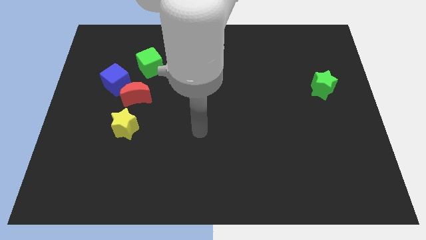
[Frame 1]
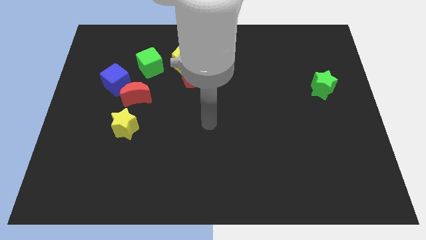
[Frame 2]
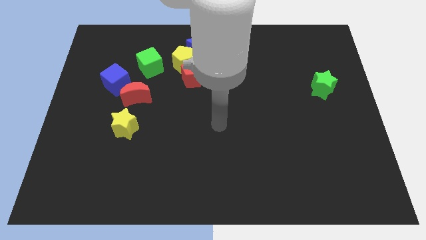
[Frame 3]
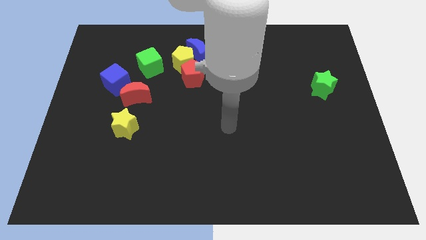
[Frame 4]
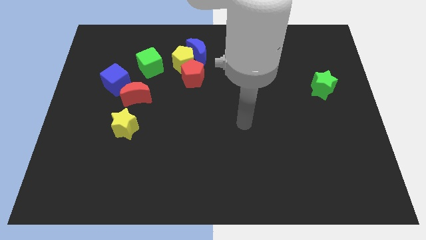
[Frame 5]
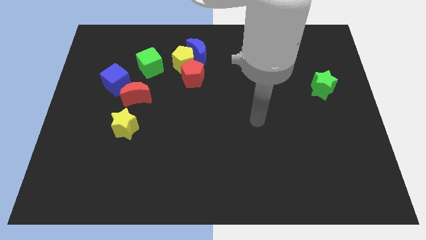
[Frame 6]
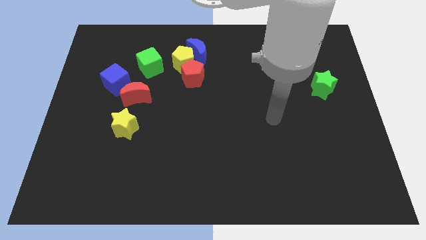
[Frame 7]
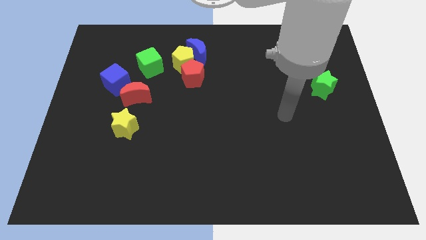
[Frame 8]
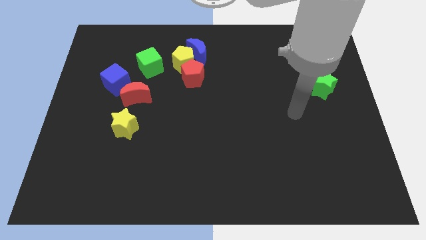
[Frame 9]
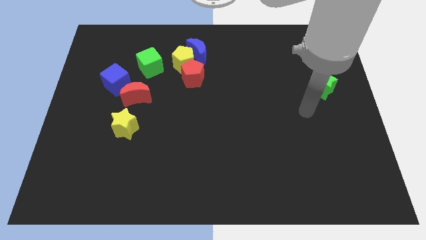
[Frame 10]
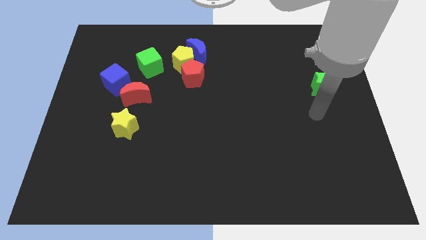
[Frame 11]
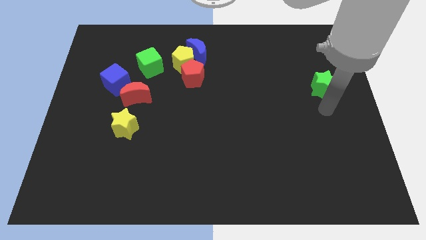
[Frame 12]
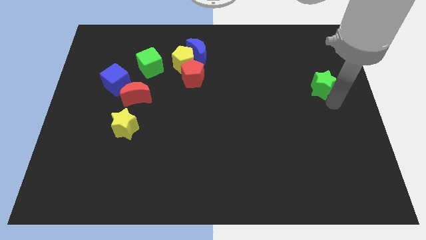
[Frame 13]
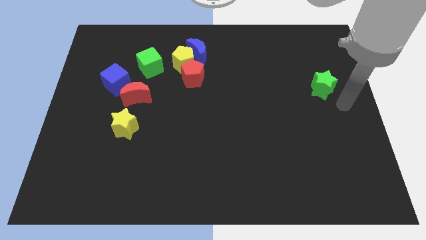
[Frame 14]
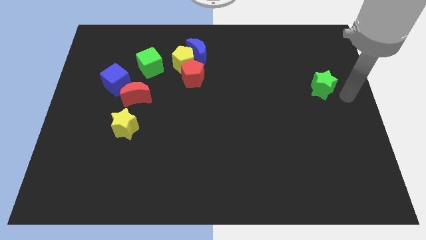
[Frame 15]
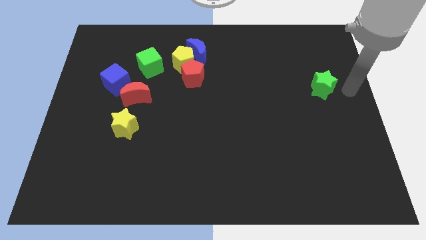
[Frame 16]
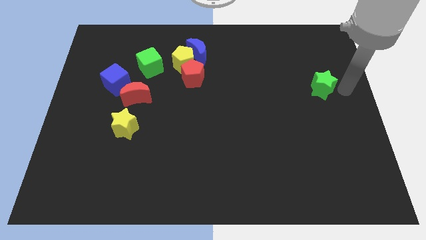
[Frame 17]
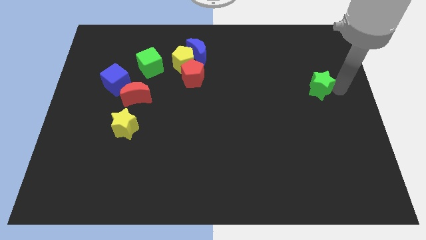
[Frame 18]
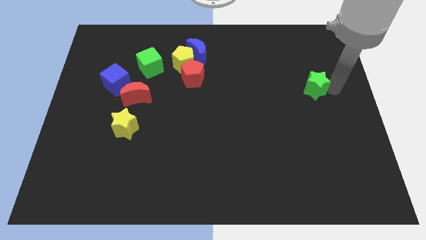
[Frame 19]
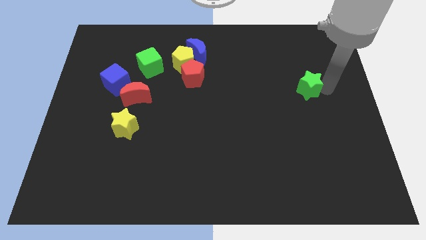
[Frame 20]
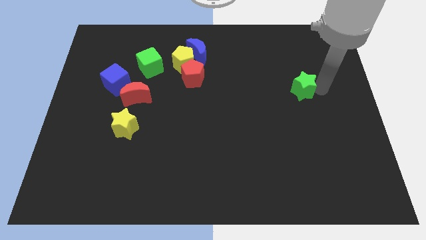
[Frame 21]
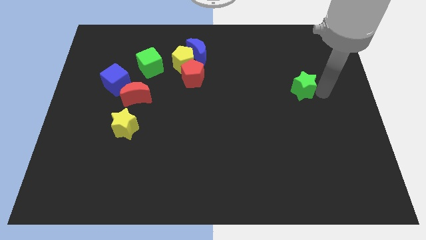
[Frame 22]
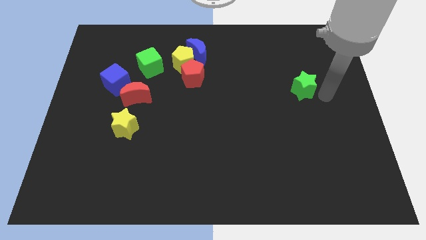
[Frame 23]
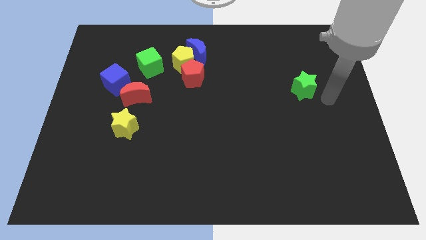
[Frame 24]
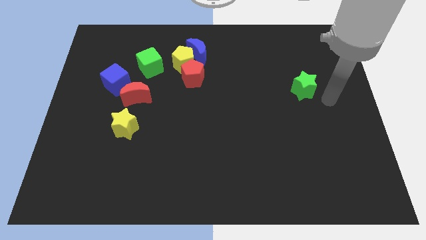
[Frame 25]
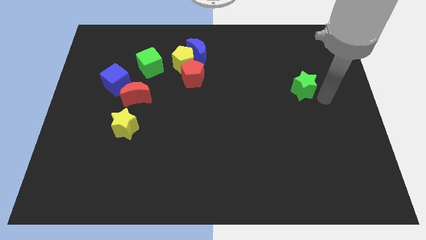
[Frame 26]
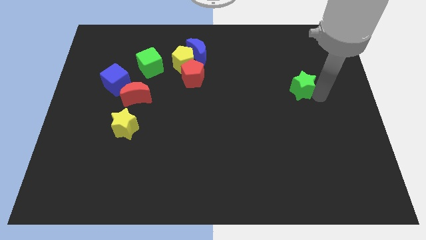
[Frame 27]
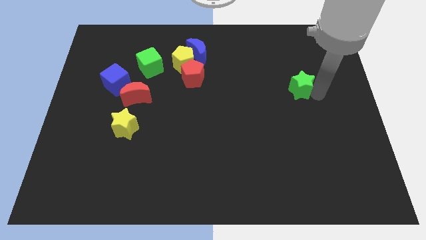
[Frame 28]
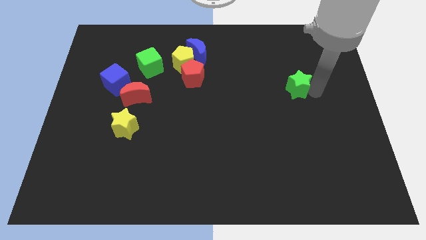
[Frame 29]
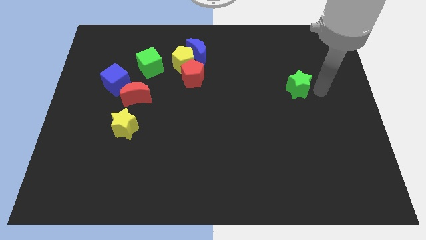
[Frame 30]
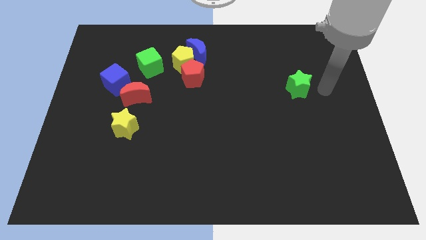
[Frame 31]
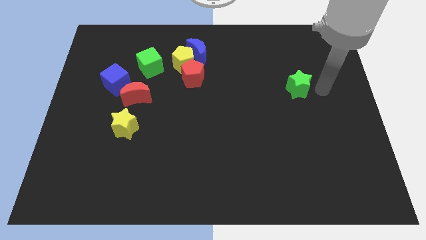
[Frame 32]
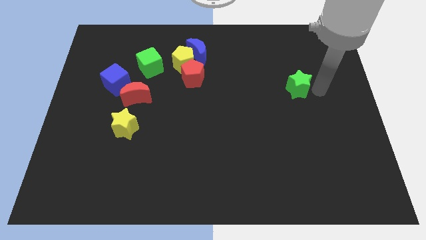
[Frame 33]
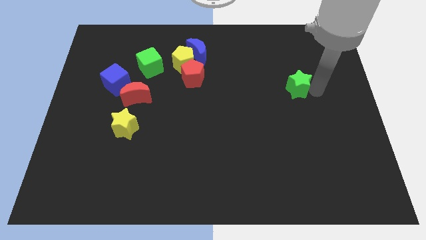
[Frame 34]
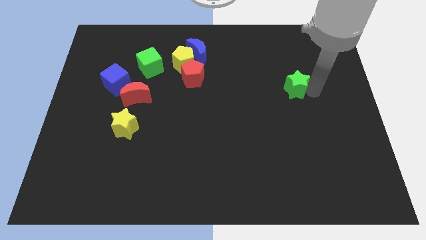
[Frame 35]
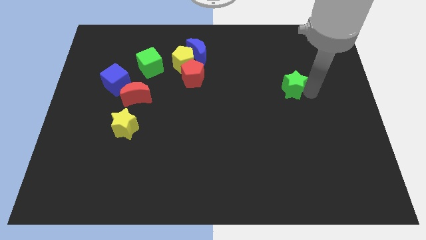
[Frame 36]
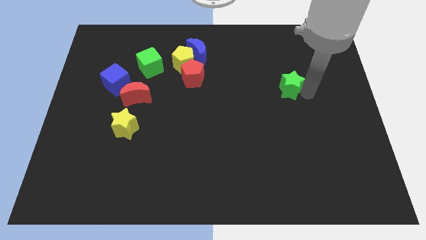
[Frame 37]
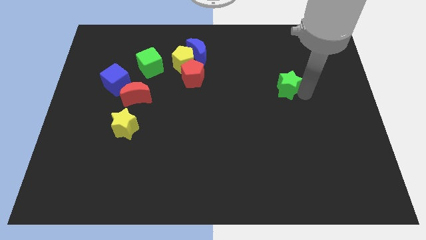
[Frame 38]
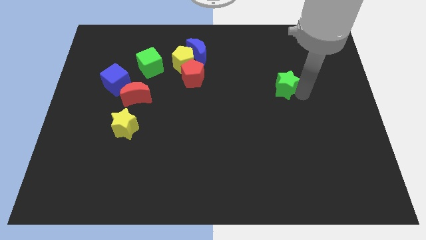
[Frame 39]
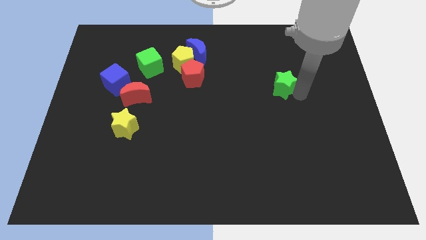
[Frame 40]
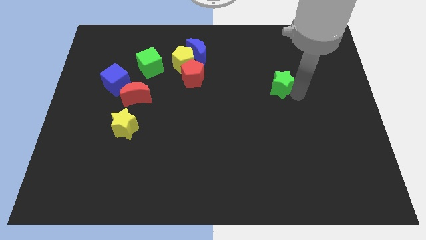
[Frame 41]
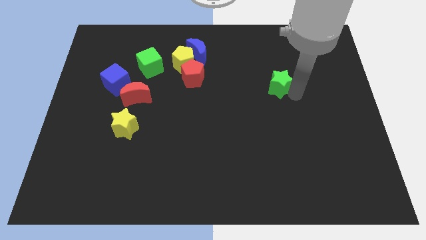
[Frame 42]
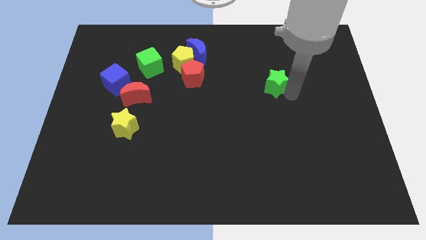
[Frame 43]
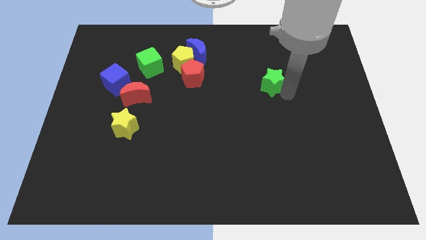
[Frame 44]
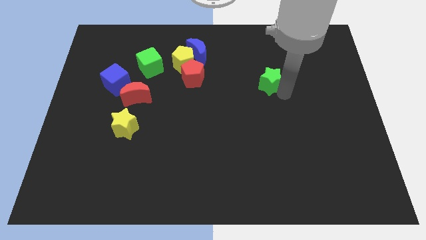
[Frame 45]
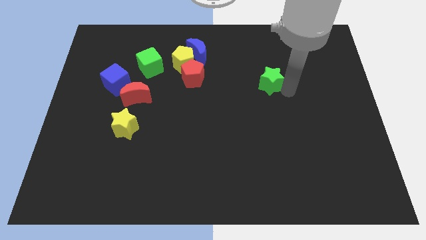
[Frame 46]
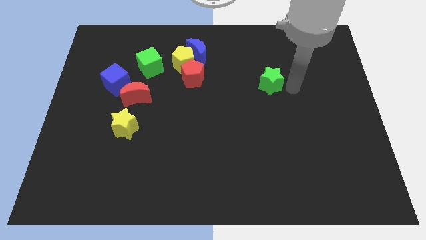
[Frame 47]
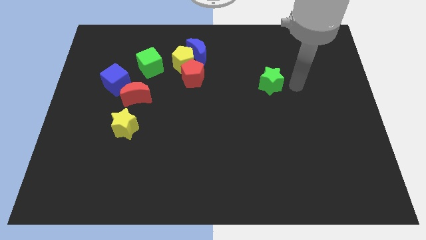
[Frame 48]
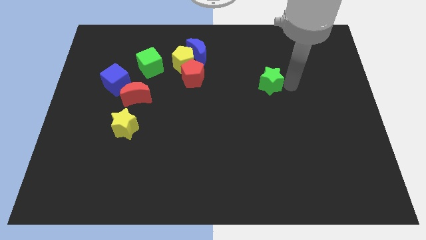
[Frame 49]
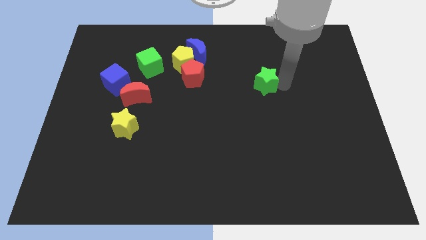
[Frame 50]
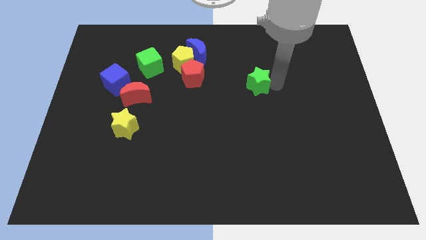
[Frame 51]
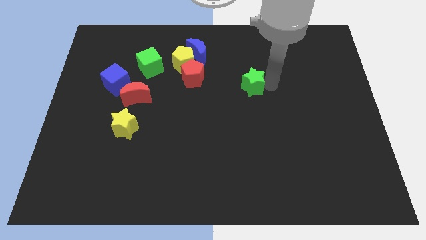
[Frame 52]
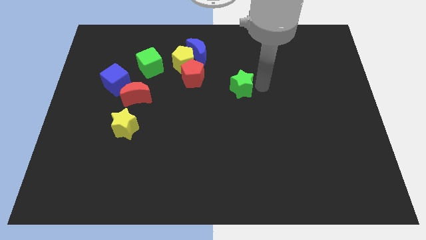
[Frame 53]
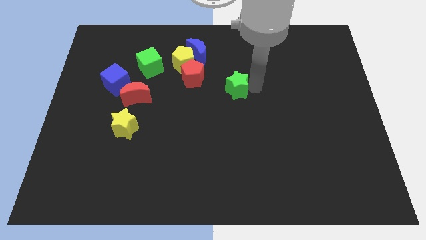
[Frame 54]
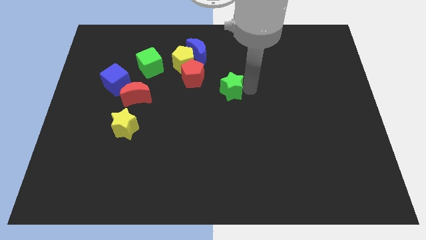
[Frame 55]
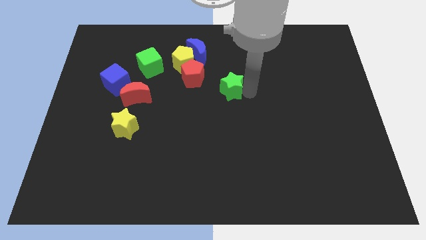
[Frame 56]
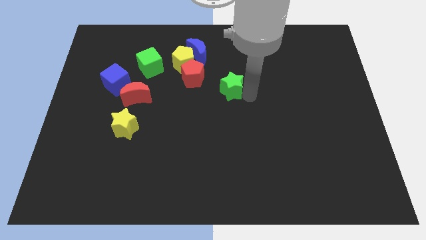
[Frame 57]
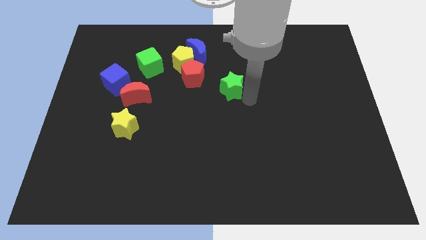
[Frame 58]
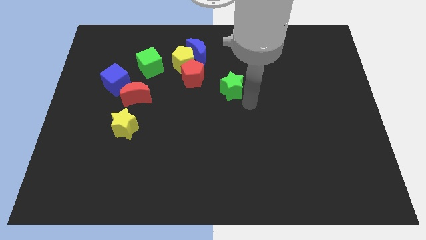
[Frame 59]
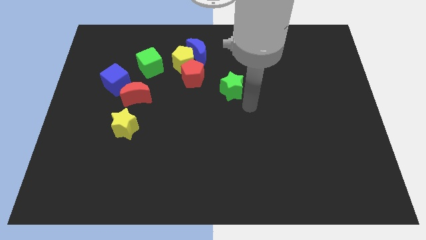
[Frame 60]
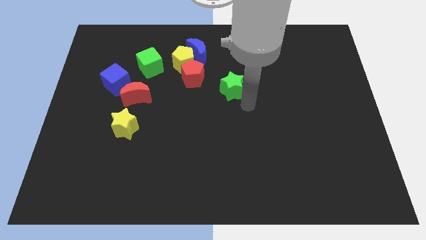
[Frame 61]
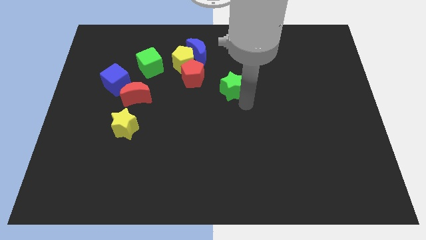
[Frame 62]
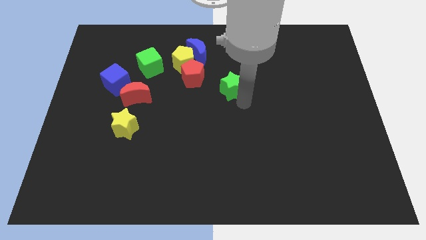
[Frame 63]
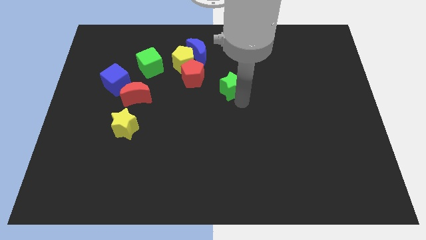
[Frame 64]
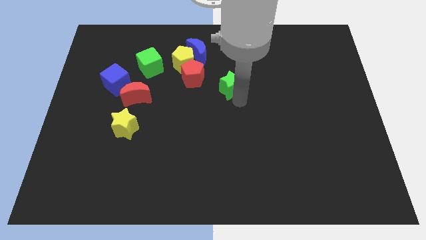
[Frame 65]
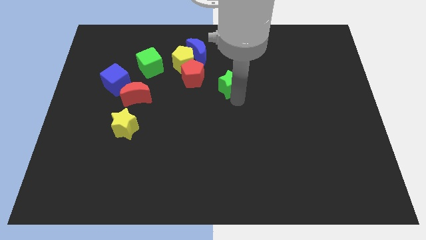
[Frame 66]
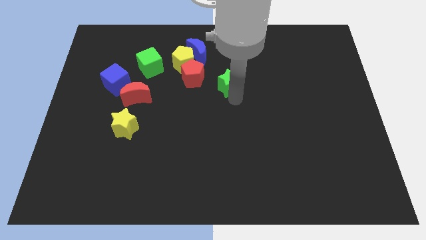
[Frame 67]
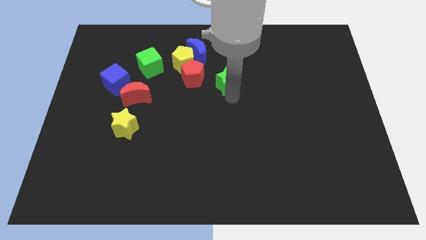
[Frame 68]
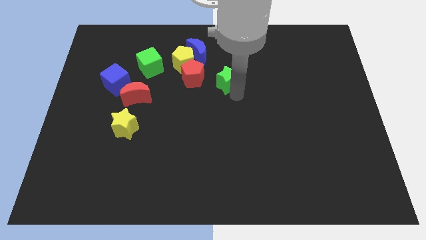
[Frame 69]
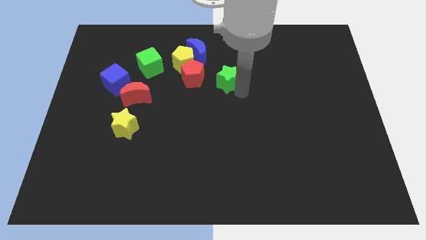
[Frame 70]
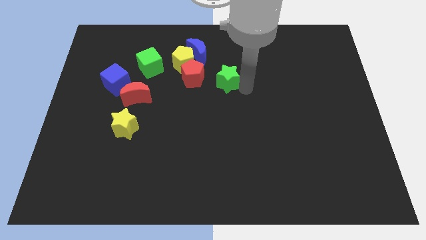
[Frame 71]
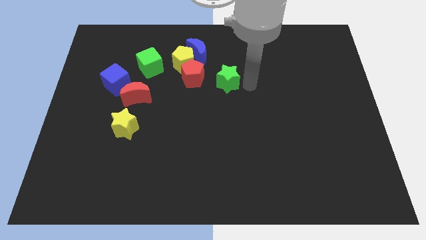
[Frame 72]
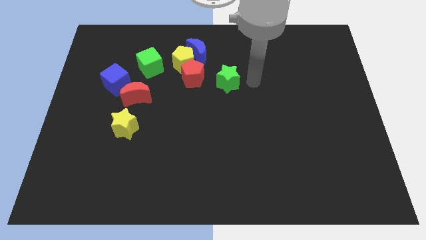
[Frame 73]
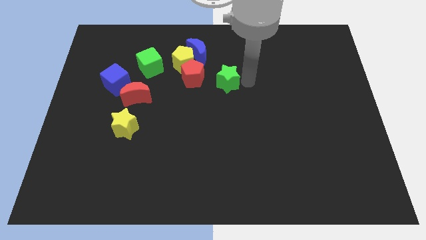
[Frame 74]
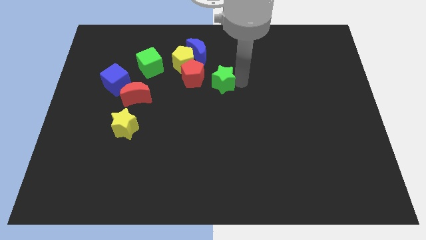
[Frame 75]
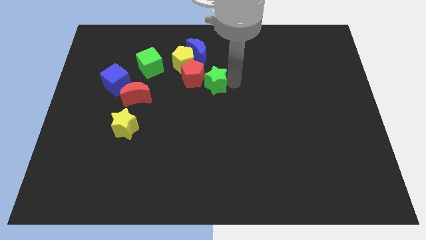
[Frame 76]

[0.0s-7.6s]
push the green star to the bottom of the blue moon
